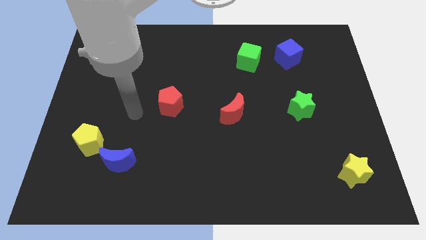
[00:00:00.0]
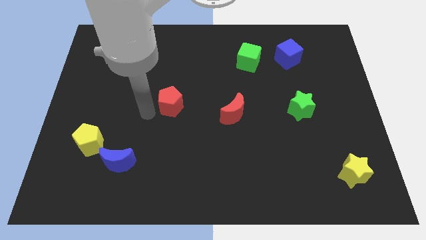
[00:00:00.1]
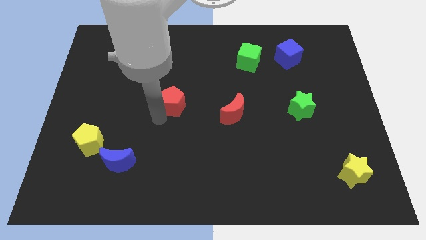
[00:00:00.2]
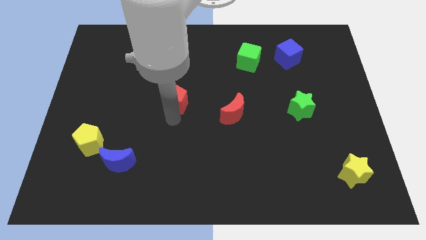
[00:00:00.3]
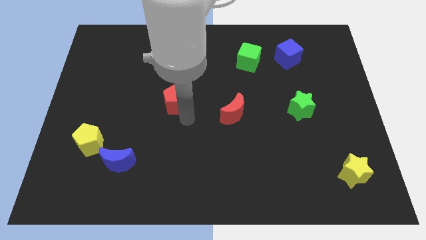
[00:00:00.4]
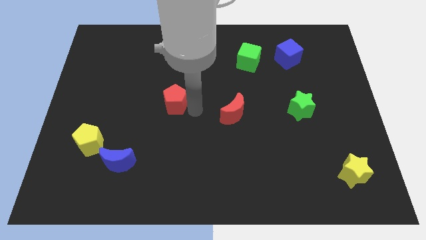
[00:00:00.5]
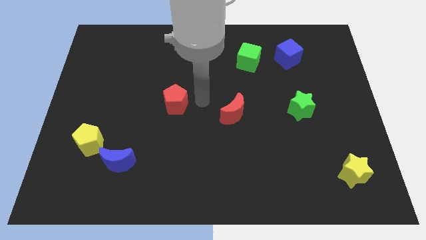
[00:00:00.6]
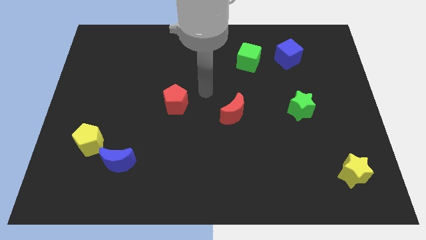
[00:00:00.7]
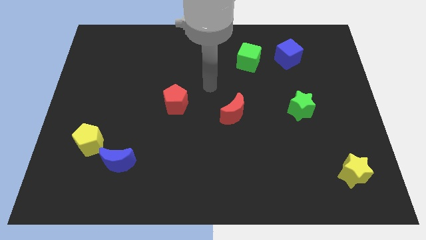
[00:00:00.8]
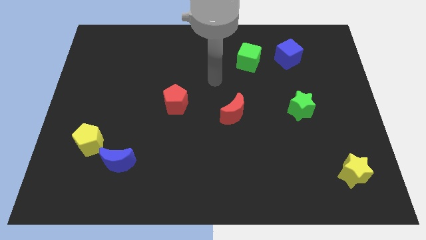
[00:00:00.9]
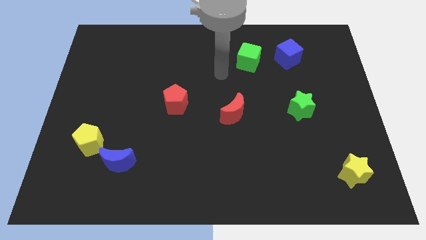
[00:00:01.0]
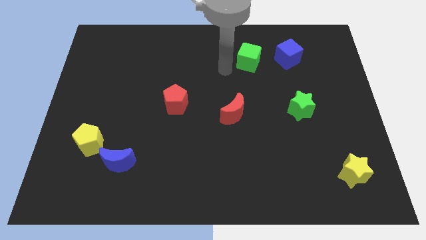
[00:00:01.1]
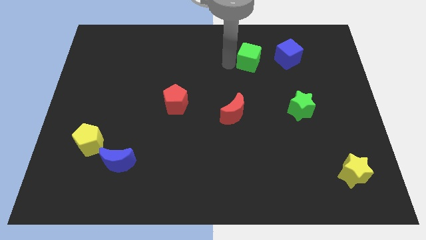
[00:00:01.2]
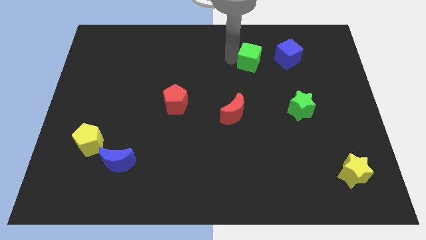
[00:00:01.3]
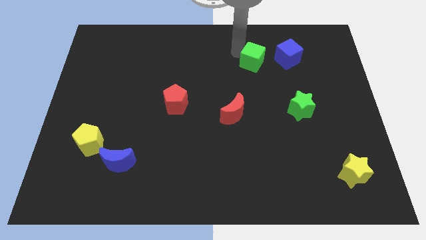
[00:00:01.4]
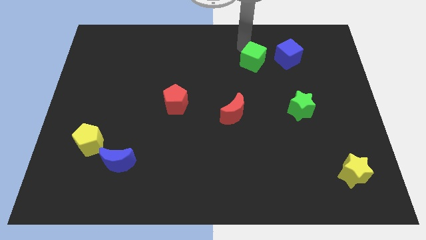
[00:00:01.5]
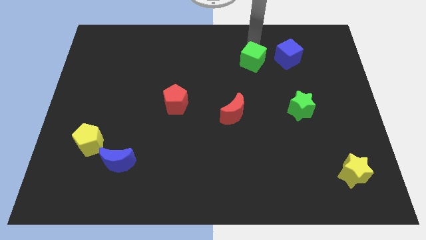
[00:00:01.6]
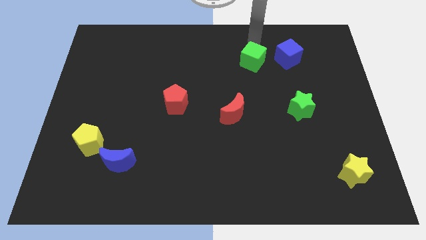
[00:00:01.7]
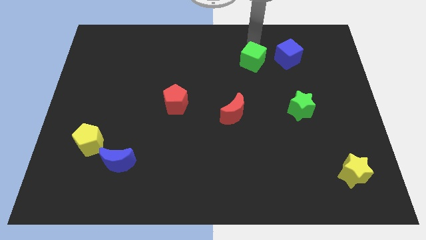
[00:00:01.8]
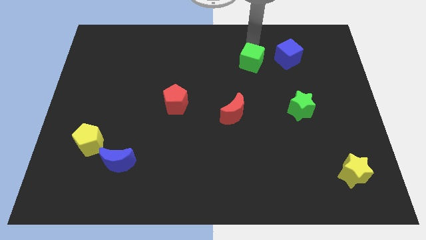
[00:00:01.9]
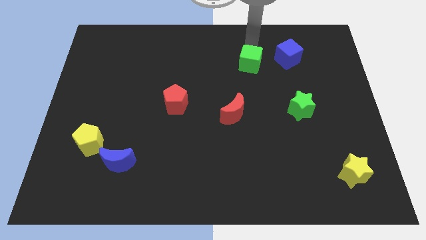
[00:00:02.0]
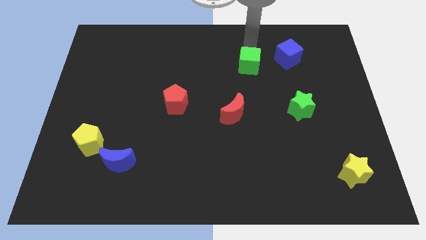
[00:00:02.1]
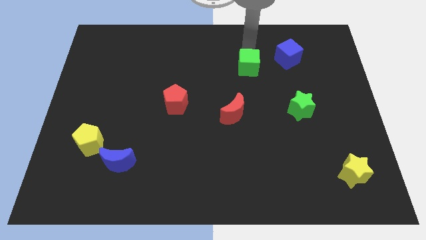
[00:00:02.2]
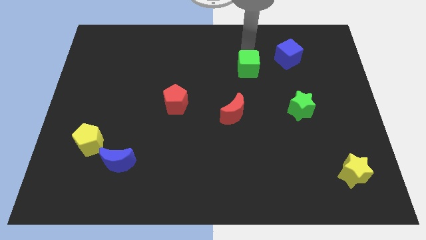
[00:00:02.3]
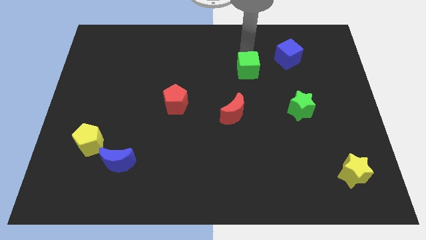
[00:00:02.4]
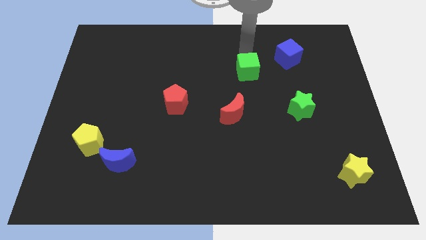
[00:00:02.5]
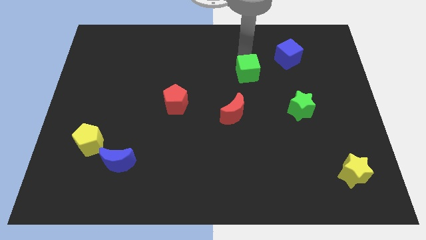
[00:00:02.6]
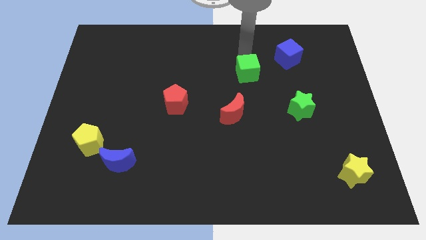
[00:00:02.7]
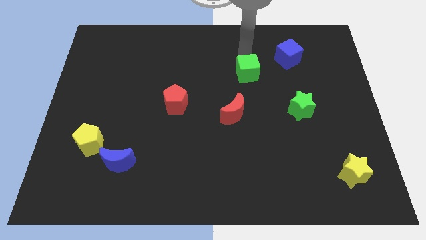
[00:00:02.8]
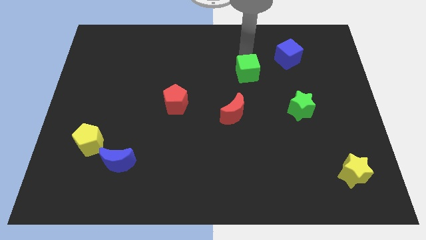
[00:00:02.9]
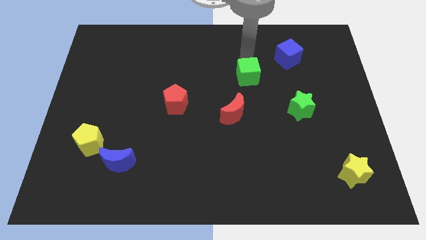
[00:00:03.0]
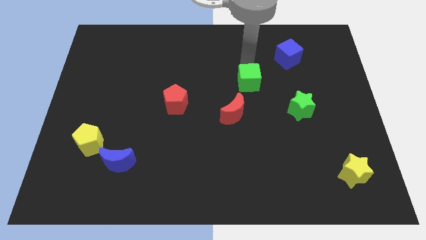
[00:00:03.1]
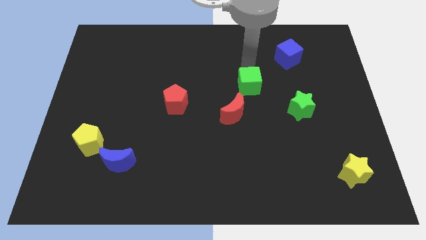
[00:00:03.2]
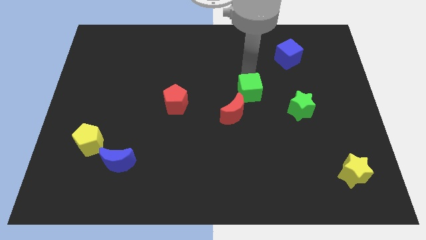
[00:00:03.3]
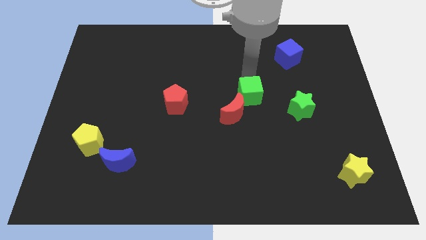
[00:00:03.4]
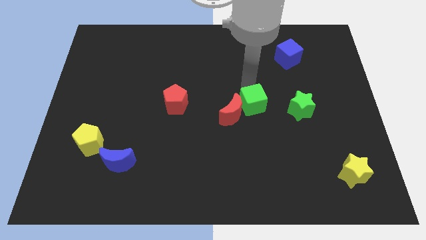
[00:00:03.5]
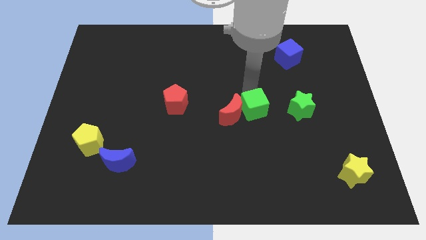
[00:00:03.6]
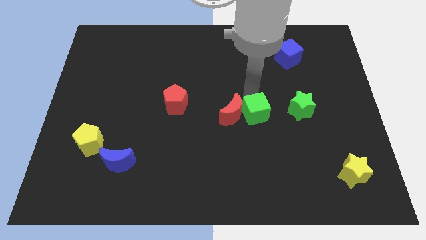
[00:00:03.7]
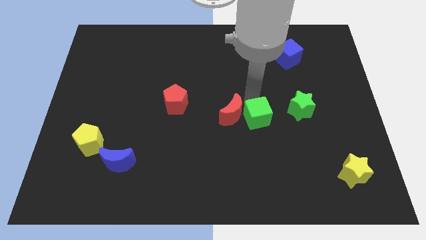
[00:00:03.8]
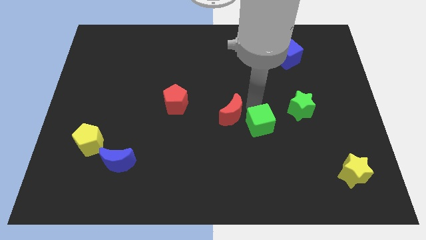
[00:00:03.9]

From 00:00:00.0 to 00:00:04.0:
move the green cube down

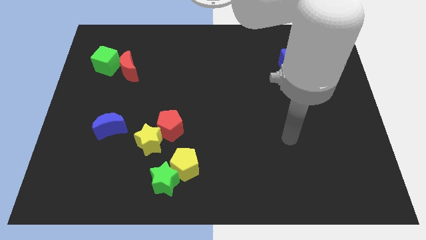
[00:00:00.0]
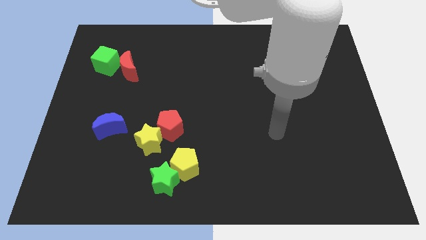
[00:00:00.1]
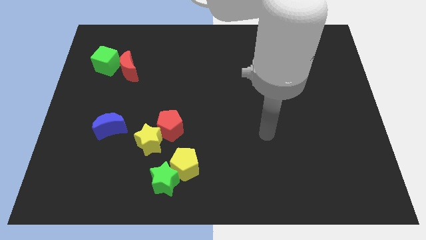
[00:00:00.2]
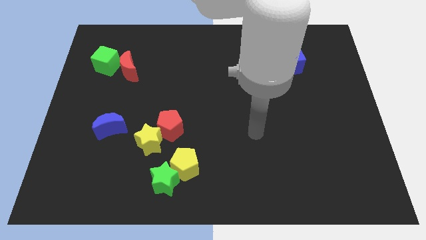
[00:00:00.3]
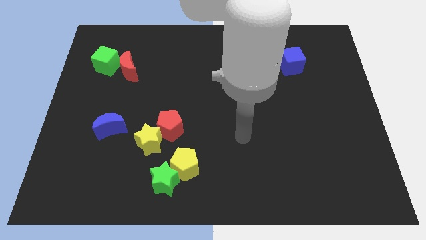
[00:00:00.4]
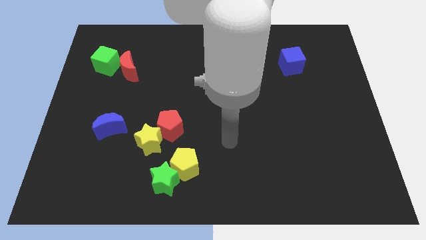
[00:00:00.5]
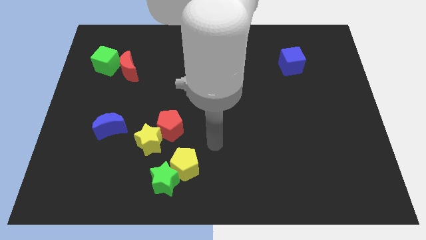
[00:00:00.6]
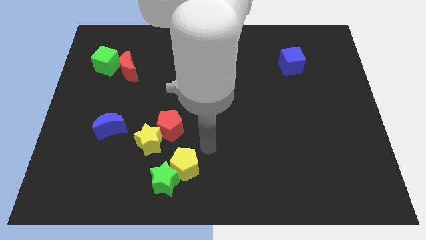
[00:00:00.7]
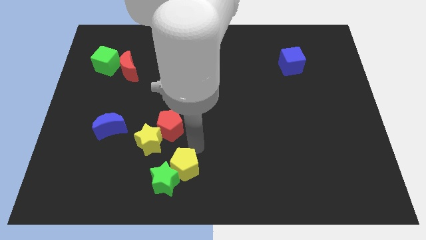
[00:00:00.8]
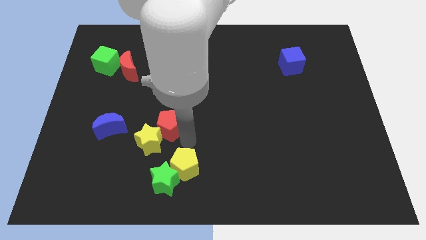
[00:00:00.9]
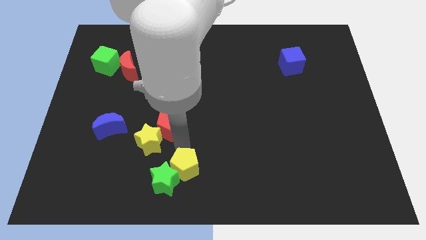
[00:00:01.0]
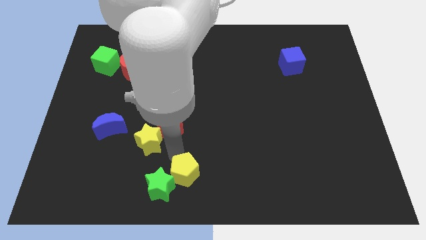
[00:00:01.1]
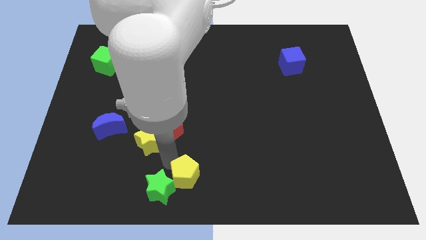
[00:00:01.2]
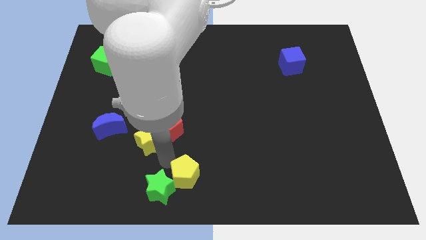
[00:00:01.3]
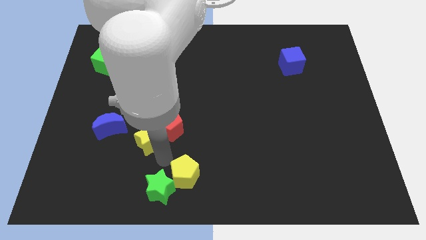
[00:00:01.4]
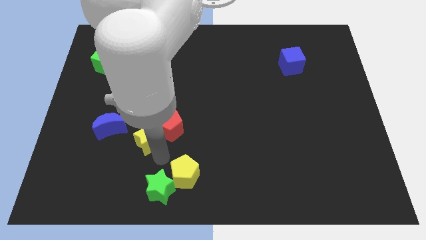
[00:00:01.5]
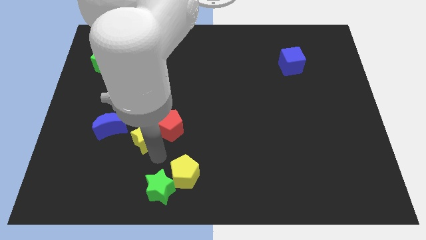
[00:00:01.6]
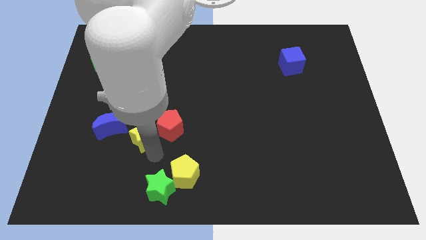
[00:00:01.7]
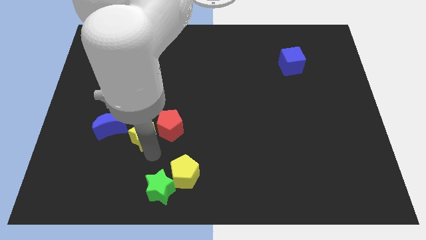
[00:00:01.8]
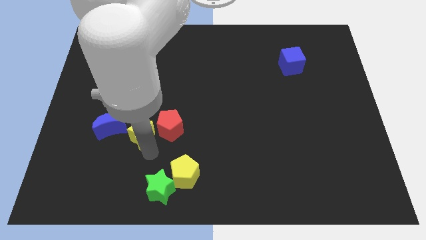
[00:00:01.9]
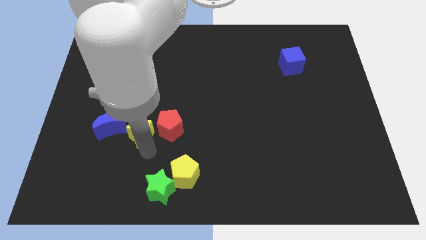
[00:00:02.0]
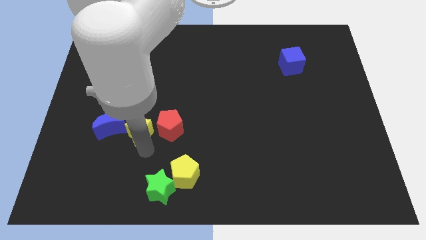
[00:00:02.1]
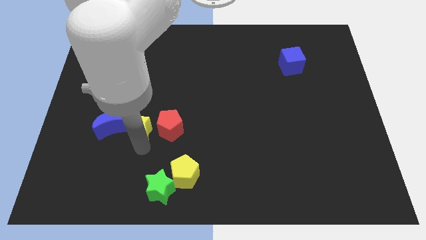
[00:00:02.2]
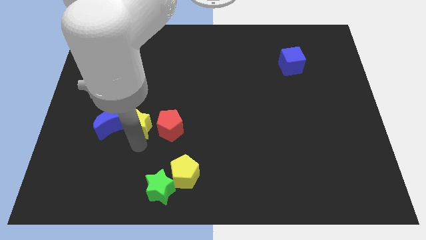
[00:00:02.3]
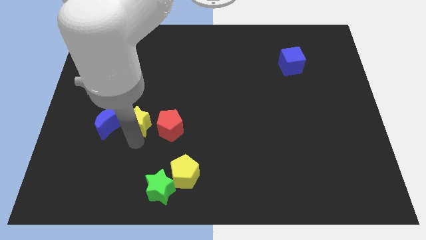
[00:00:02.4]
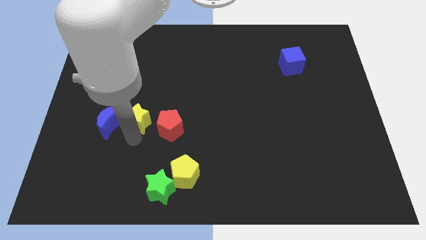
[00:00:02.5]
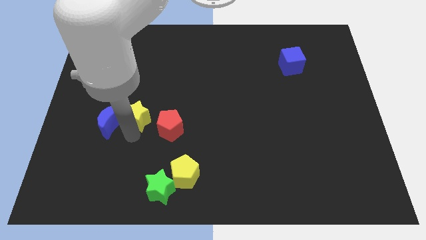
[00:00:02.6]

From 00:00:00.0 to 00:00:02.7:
slide the yellow star a bit up and then left

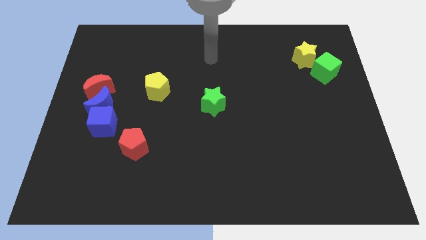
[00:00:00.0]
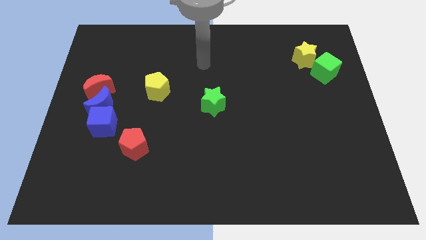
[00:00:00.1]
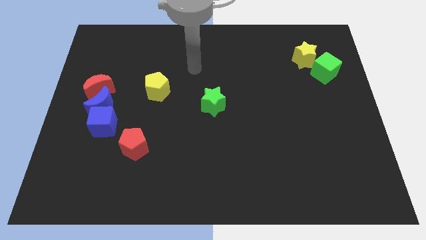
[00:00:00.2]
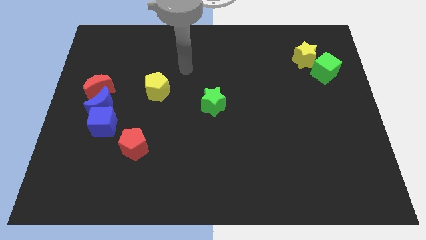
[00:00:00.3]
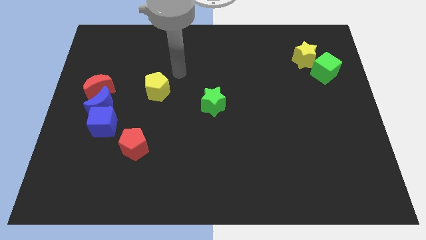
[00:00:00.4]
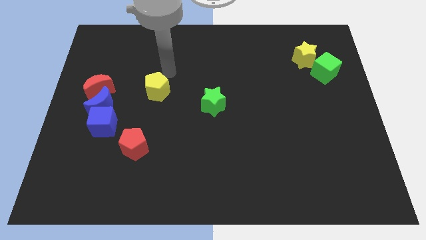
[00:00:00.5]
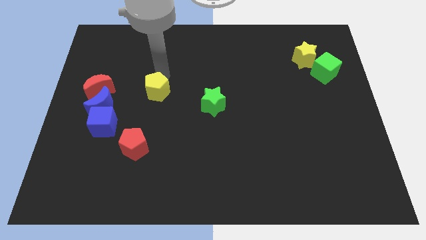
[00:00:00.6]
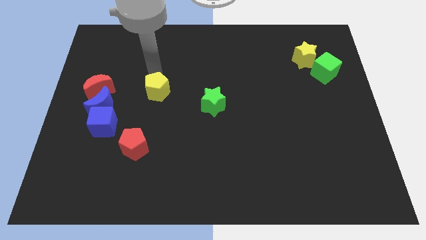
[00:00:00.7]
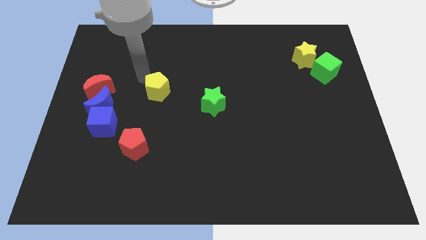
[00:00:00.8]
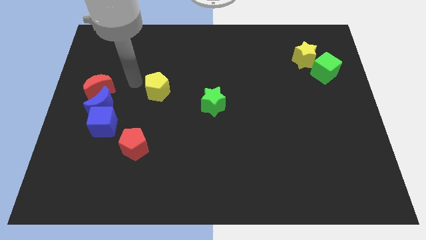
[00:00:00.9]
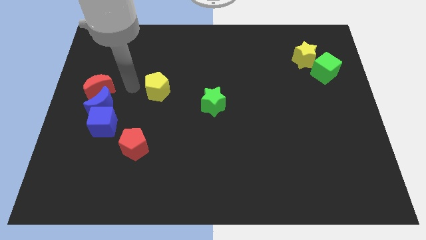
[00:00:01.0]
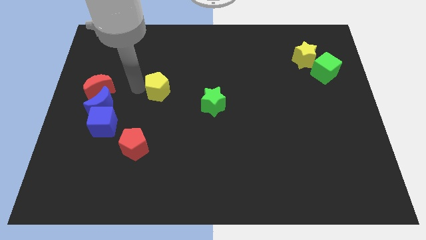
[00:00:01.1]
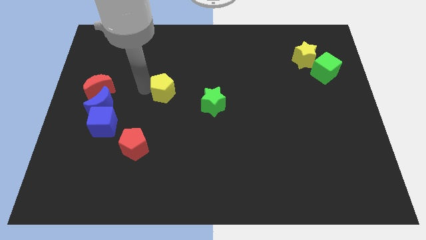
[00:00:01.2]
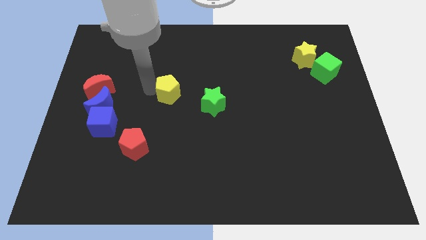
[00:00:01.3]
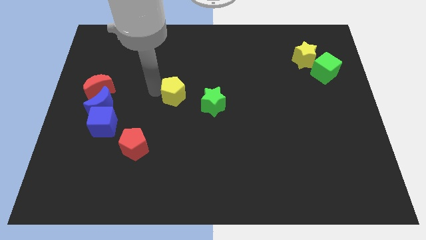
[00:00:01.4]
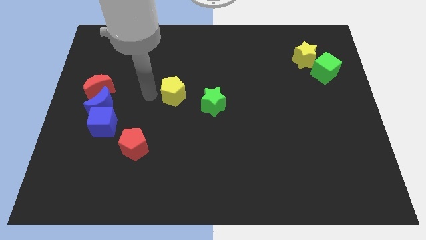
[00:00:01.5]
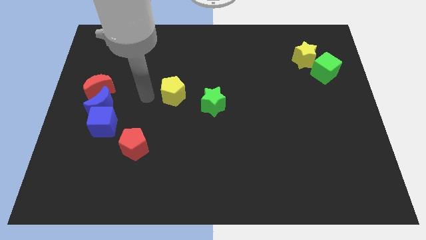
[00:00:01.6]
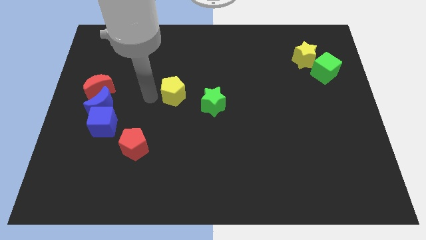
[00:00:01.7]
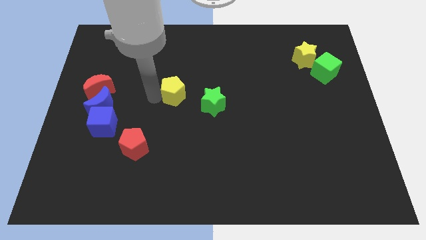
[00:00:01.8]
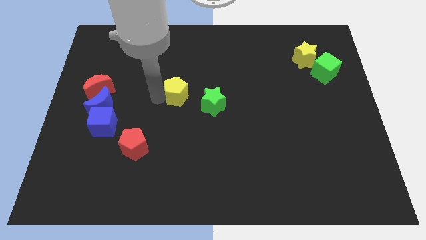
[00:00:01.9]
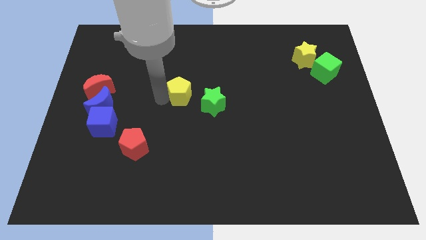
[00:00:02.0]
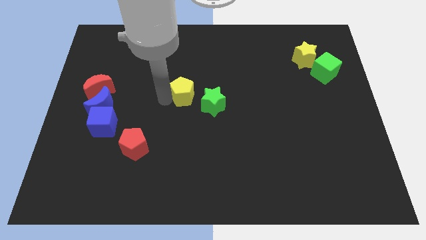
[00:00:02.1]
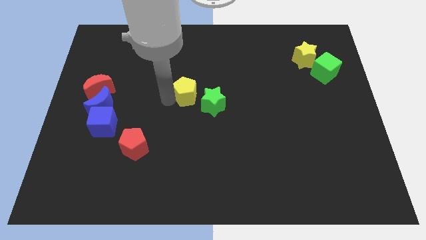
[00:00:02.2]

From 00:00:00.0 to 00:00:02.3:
slightly move the yellow pentagon to the right
